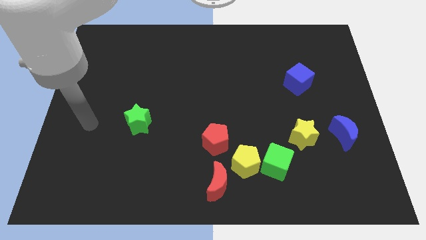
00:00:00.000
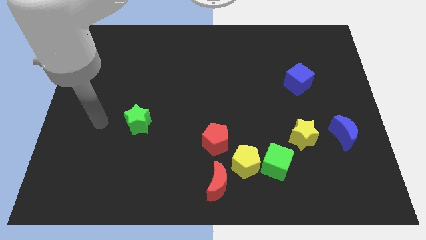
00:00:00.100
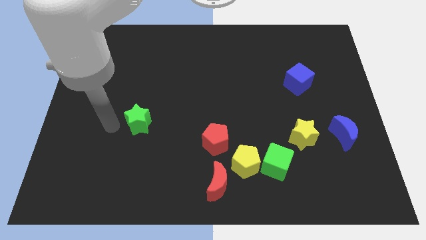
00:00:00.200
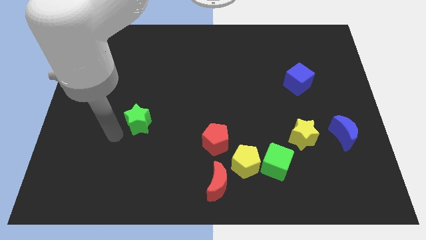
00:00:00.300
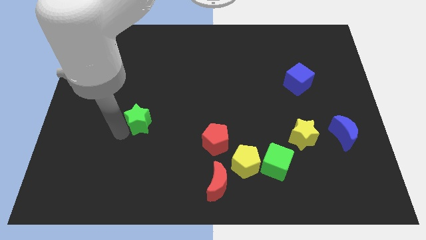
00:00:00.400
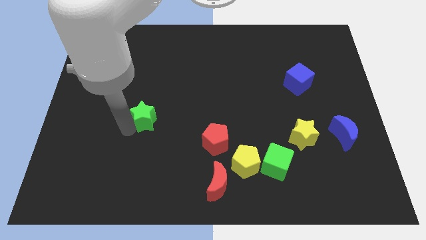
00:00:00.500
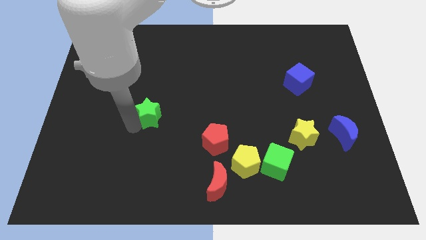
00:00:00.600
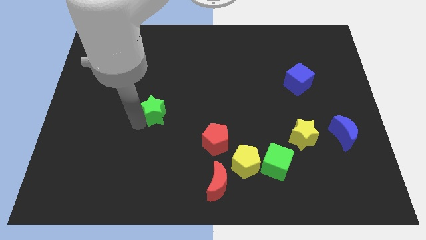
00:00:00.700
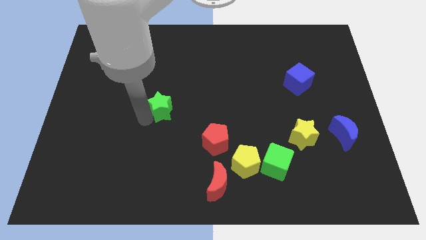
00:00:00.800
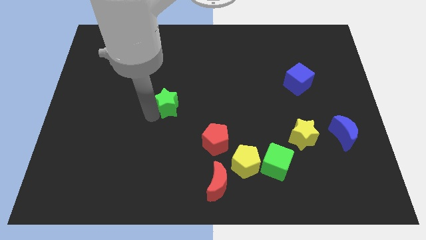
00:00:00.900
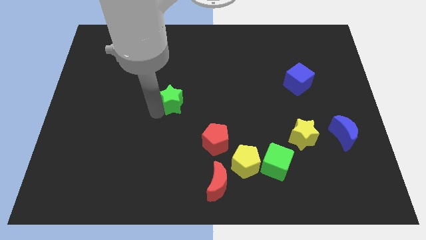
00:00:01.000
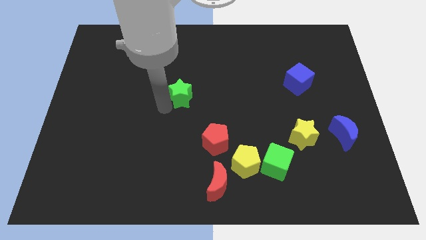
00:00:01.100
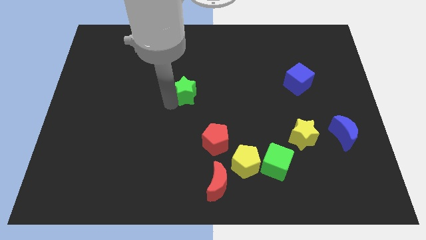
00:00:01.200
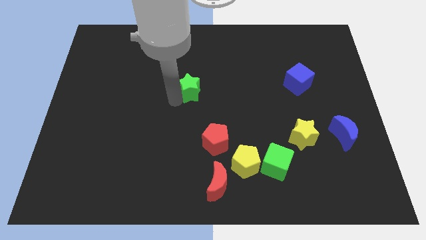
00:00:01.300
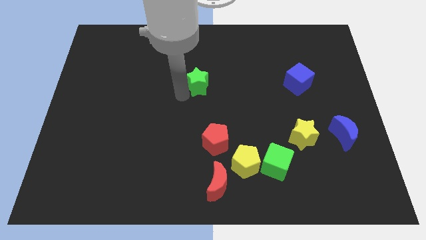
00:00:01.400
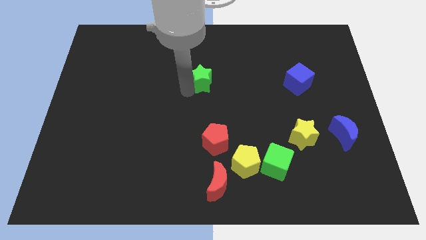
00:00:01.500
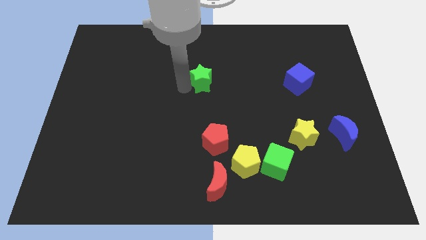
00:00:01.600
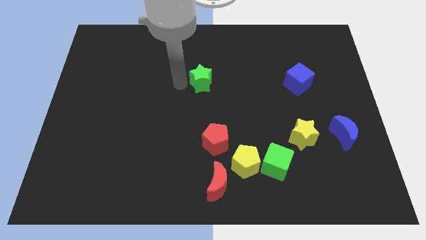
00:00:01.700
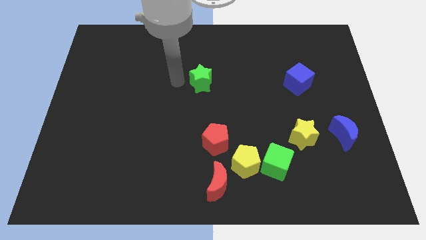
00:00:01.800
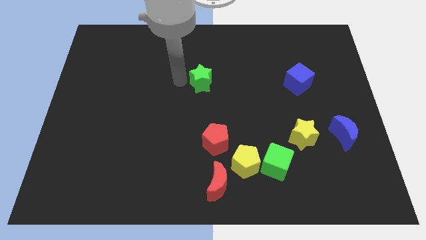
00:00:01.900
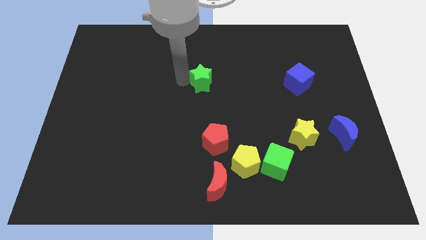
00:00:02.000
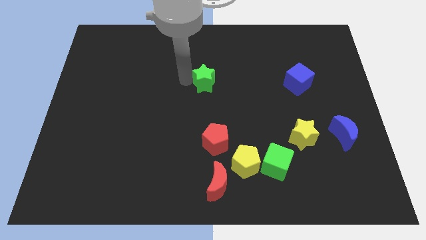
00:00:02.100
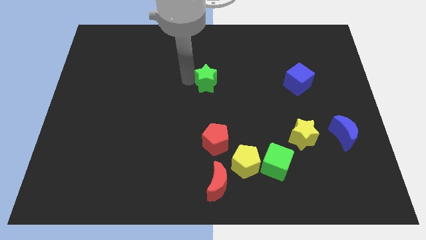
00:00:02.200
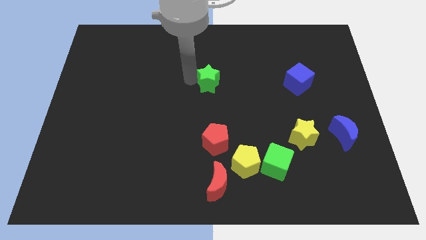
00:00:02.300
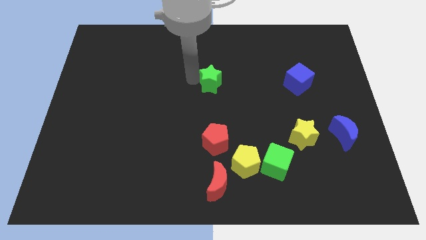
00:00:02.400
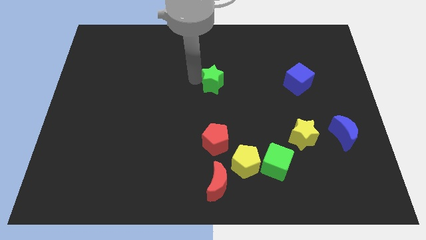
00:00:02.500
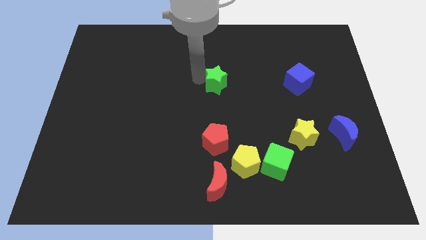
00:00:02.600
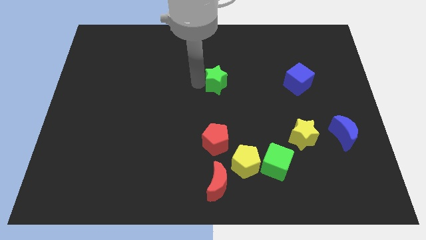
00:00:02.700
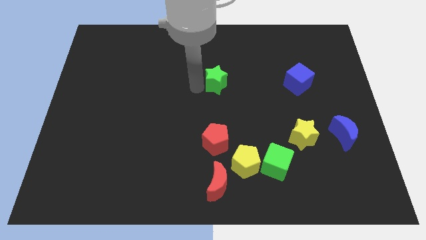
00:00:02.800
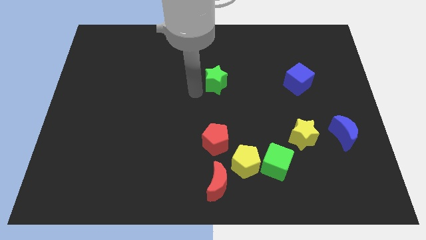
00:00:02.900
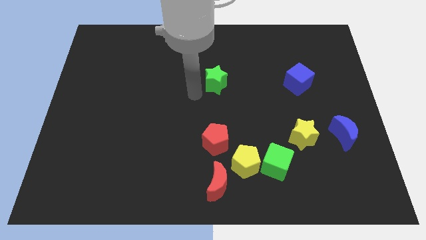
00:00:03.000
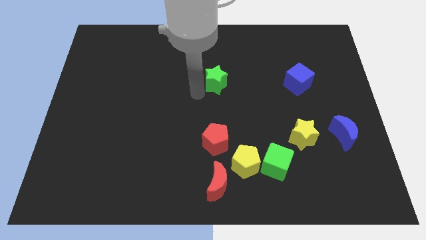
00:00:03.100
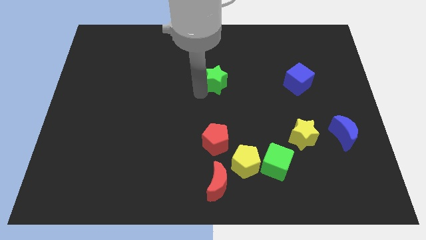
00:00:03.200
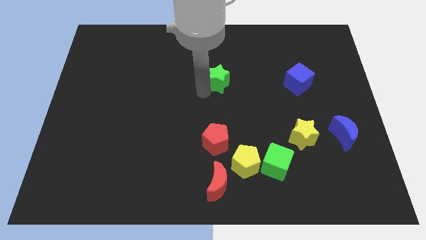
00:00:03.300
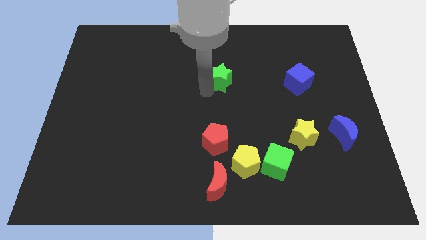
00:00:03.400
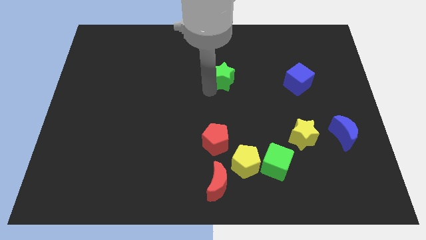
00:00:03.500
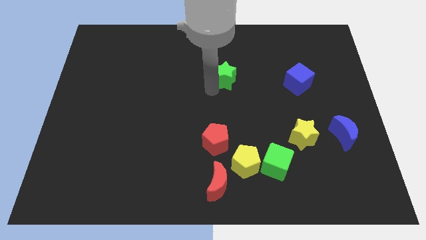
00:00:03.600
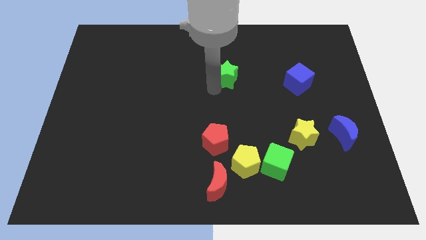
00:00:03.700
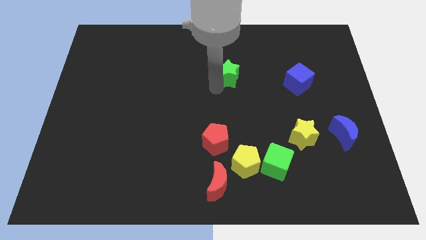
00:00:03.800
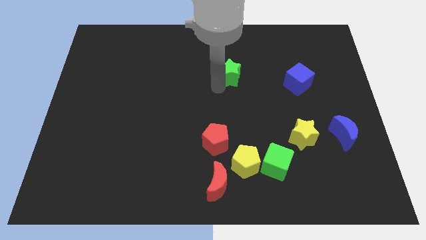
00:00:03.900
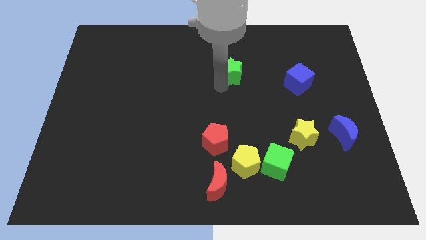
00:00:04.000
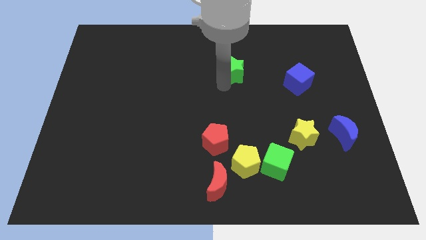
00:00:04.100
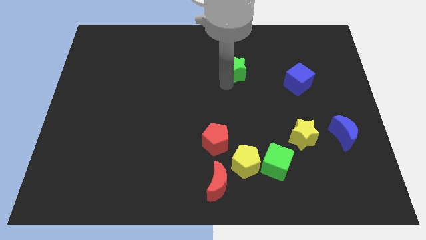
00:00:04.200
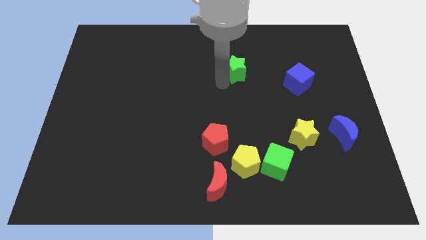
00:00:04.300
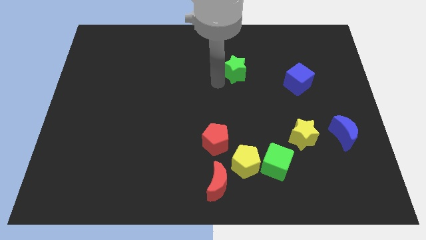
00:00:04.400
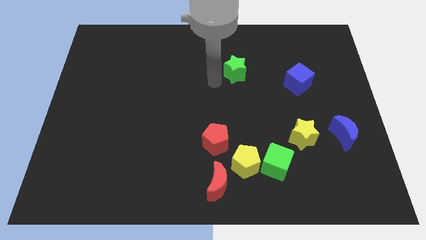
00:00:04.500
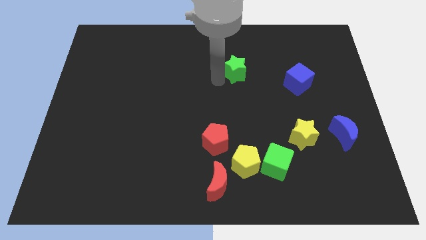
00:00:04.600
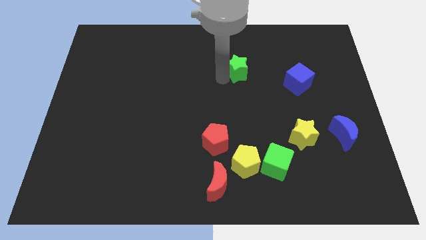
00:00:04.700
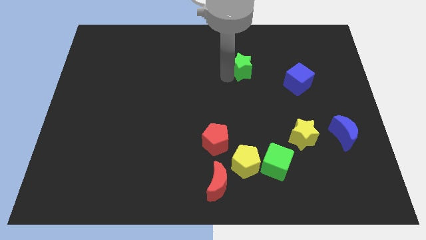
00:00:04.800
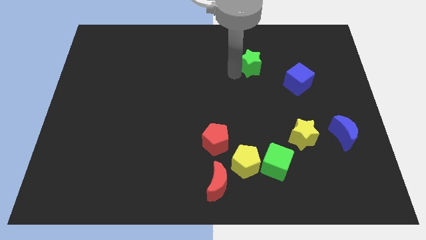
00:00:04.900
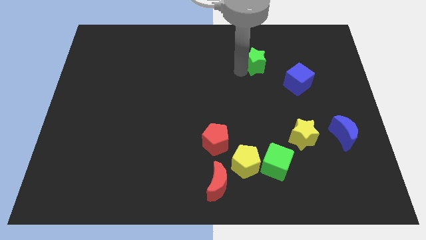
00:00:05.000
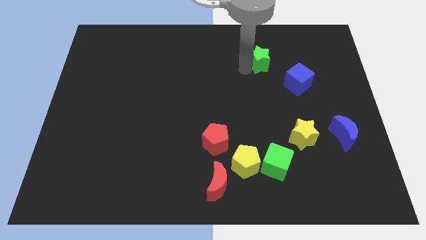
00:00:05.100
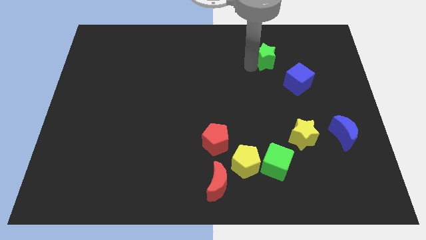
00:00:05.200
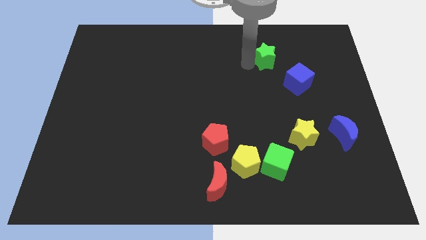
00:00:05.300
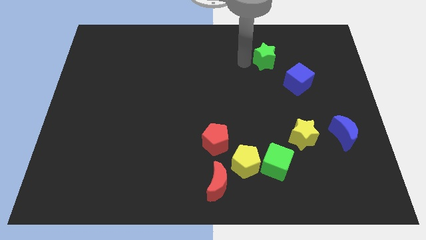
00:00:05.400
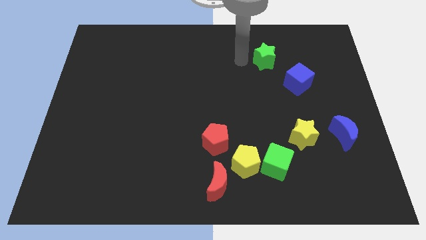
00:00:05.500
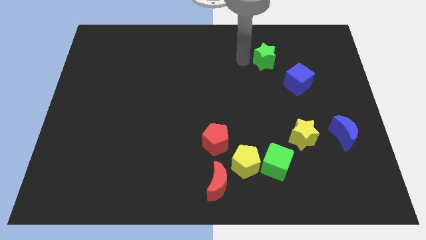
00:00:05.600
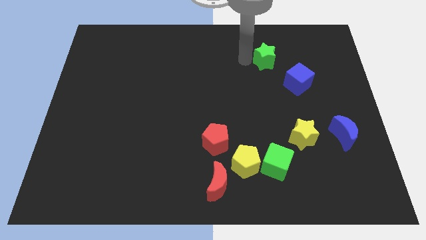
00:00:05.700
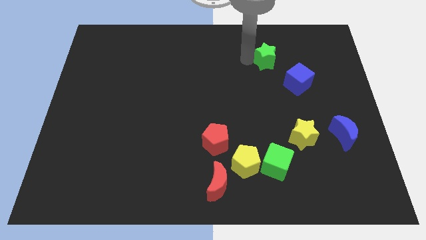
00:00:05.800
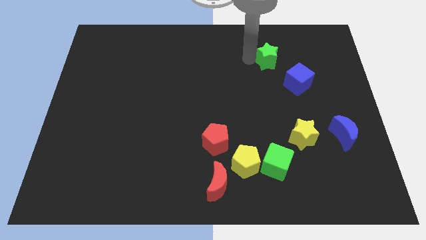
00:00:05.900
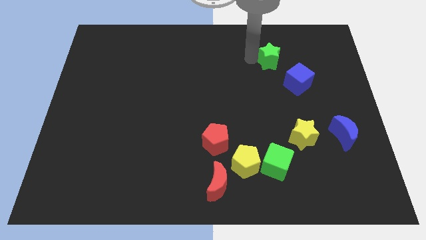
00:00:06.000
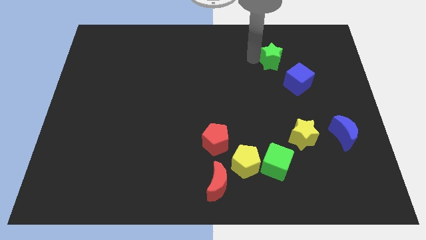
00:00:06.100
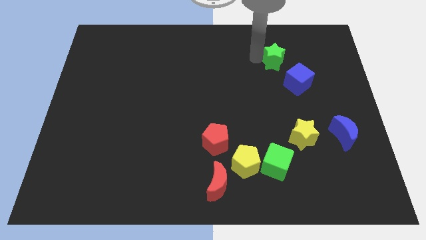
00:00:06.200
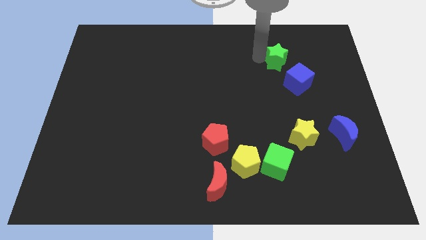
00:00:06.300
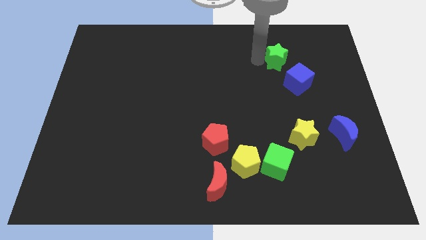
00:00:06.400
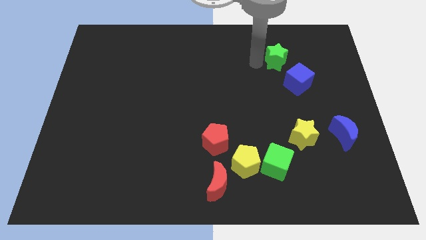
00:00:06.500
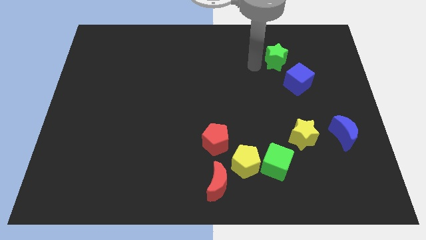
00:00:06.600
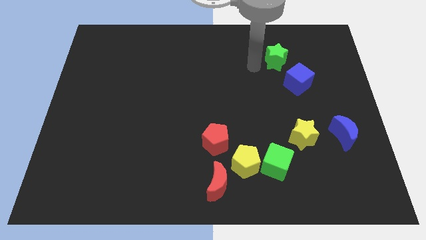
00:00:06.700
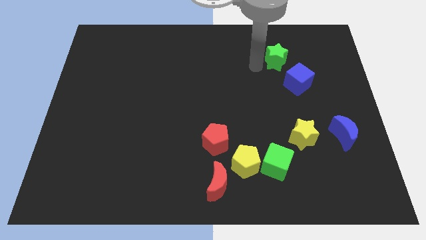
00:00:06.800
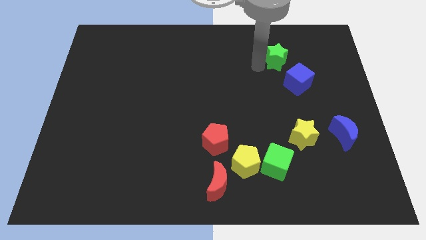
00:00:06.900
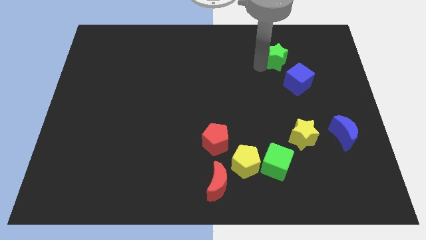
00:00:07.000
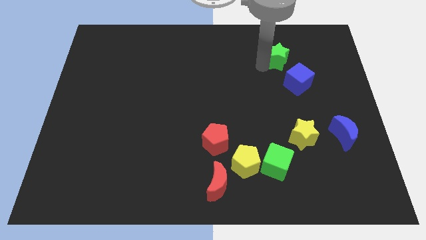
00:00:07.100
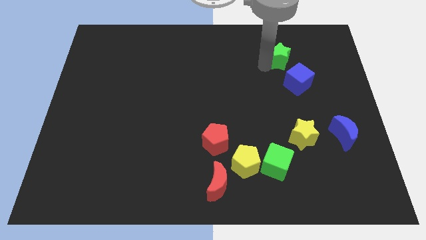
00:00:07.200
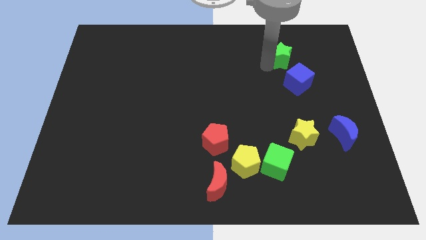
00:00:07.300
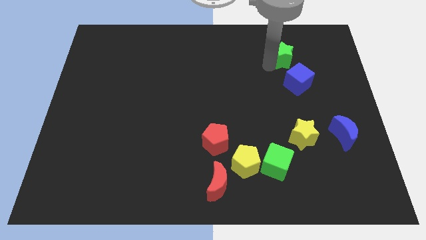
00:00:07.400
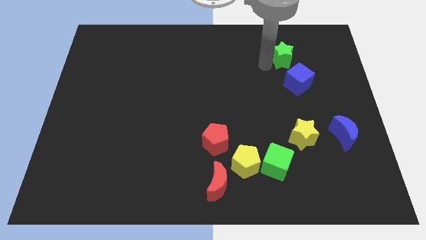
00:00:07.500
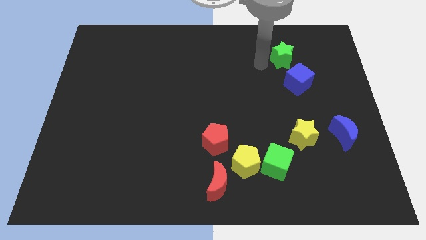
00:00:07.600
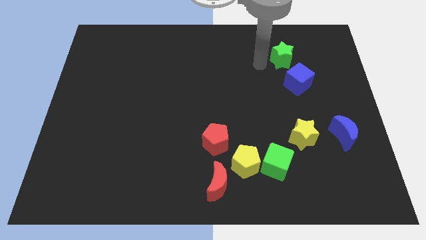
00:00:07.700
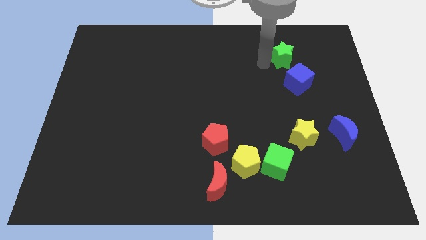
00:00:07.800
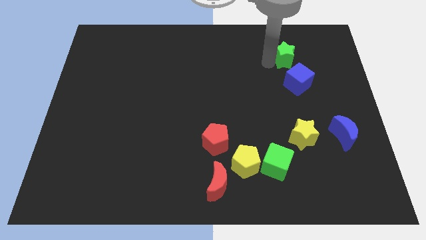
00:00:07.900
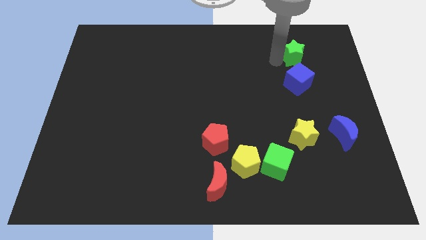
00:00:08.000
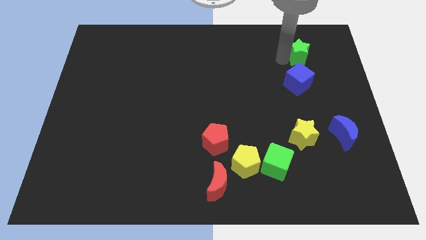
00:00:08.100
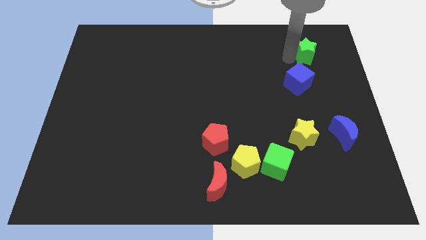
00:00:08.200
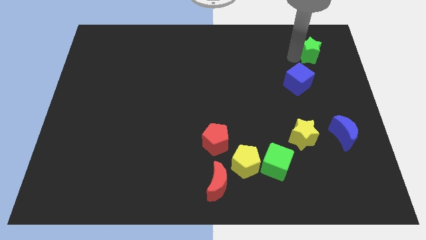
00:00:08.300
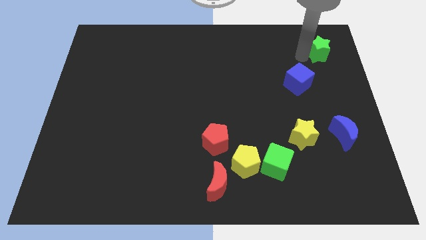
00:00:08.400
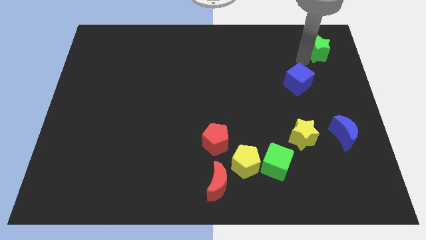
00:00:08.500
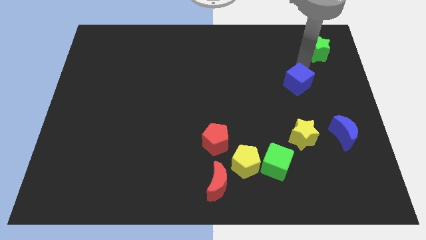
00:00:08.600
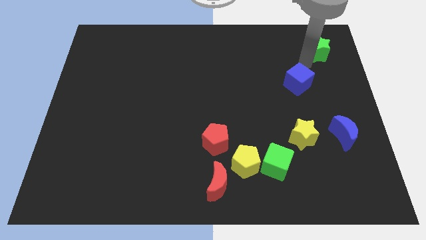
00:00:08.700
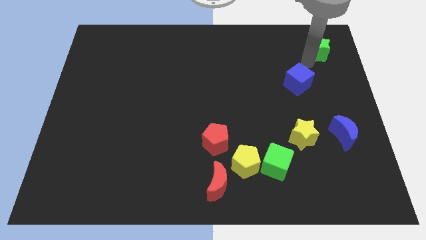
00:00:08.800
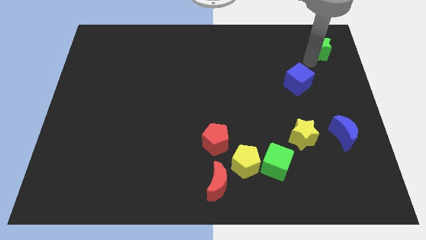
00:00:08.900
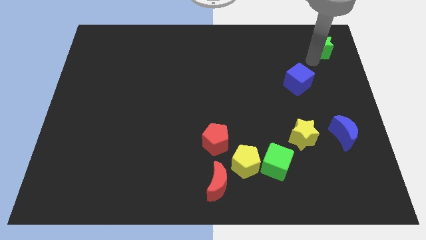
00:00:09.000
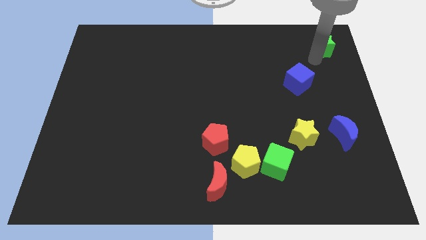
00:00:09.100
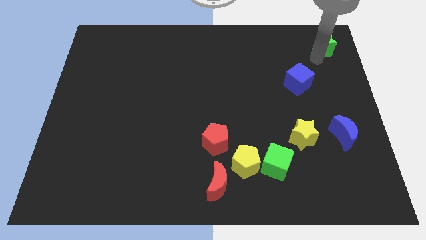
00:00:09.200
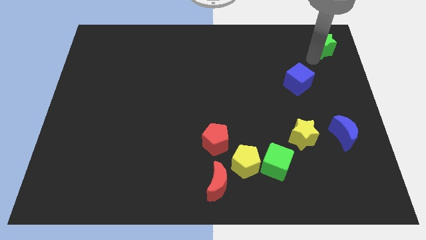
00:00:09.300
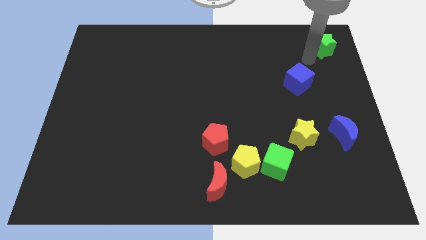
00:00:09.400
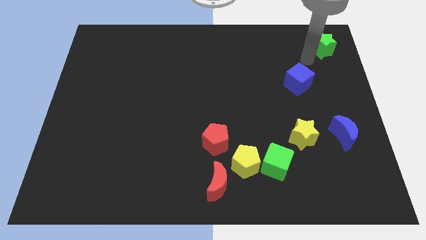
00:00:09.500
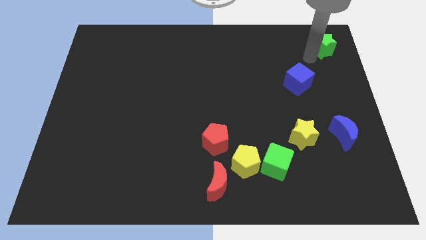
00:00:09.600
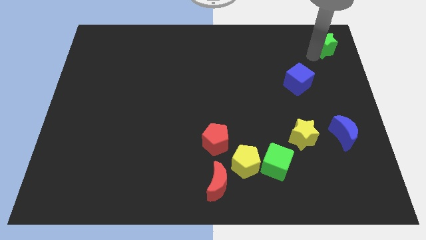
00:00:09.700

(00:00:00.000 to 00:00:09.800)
push the green star to the upper right corner
